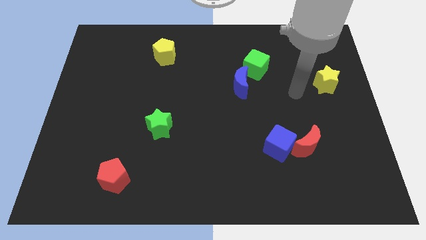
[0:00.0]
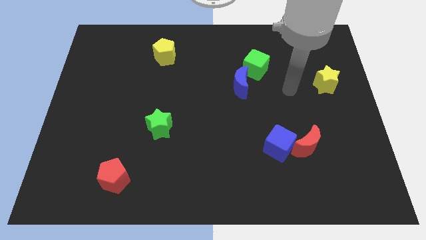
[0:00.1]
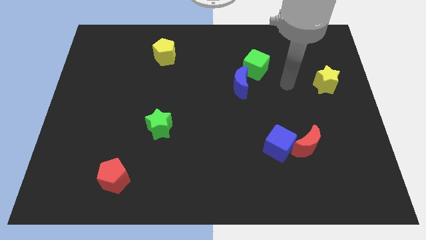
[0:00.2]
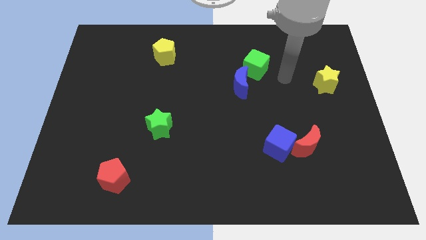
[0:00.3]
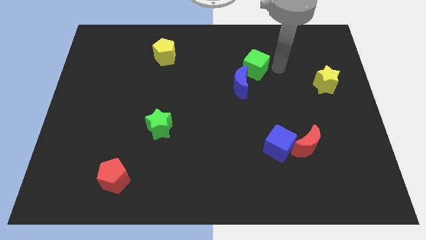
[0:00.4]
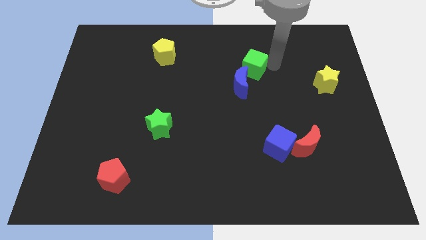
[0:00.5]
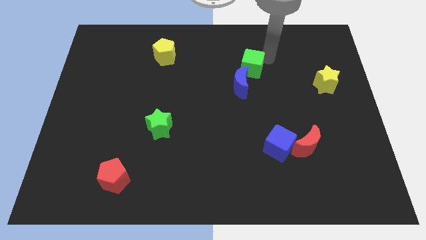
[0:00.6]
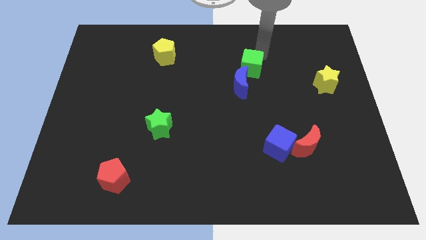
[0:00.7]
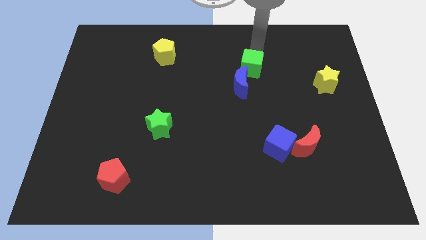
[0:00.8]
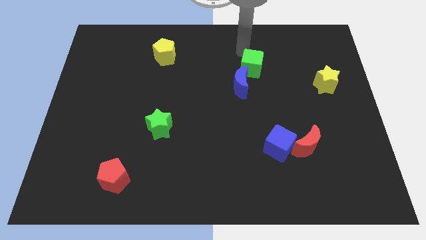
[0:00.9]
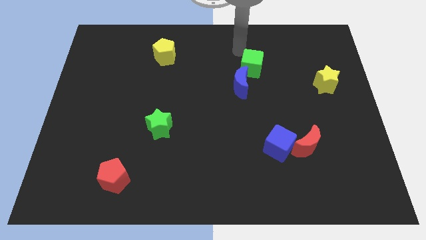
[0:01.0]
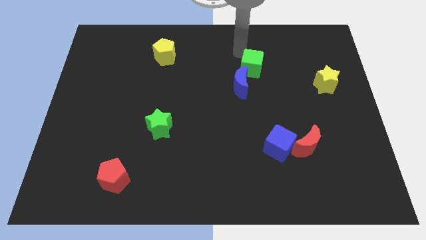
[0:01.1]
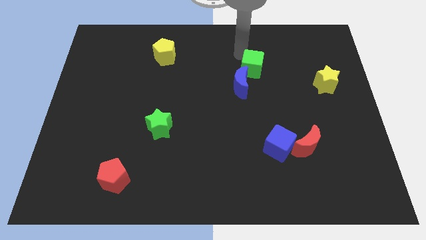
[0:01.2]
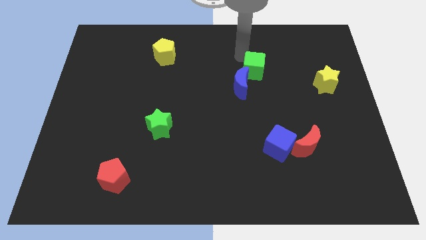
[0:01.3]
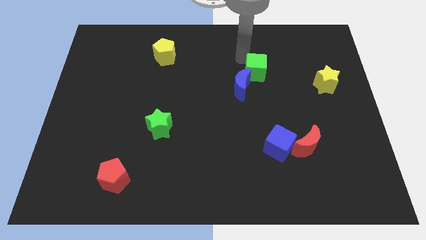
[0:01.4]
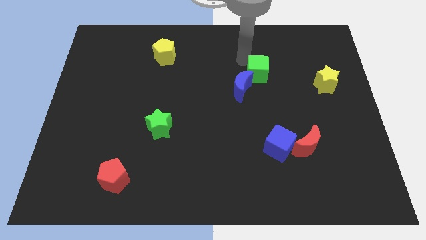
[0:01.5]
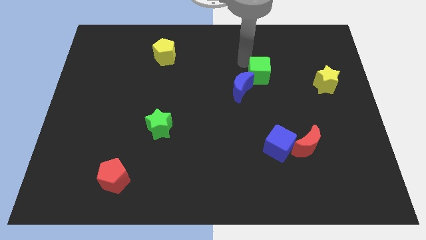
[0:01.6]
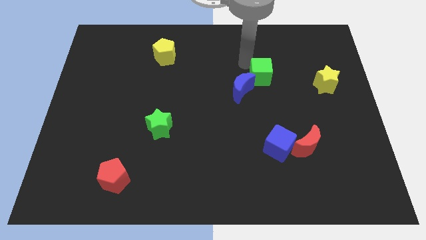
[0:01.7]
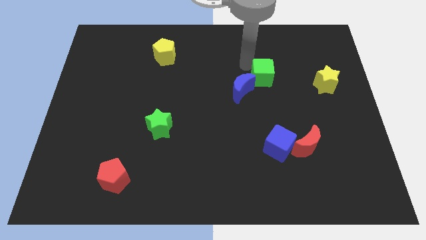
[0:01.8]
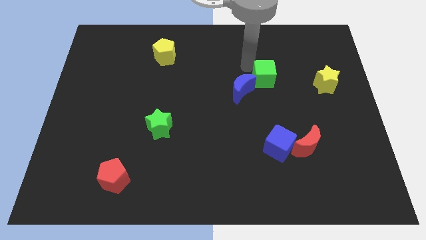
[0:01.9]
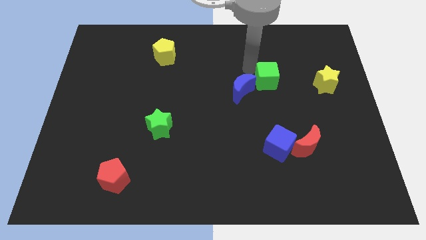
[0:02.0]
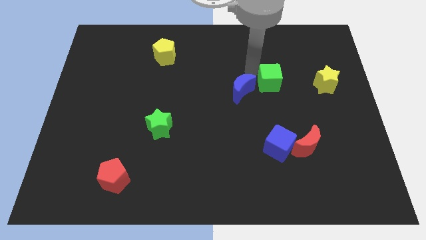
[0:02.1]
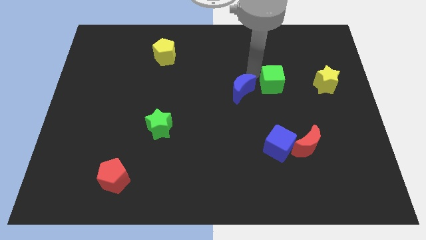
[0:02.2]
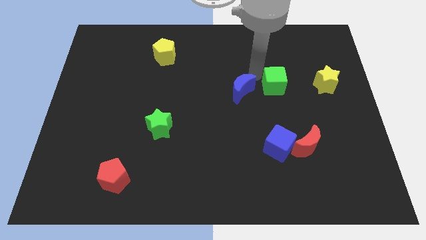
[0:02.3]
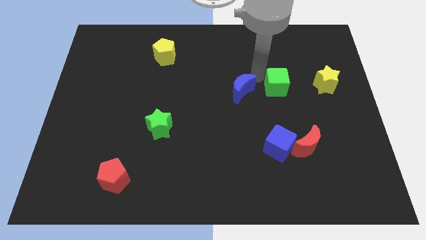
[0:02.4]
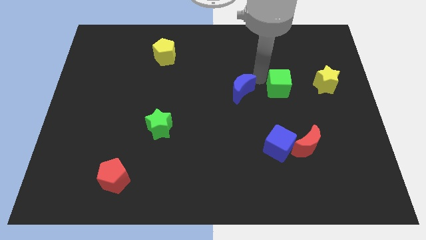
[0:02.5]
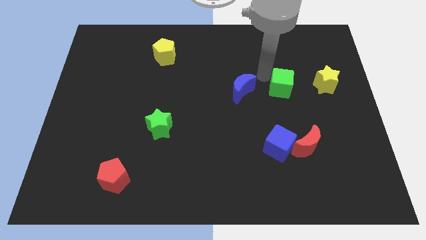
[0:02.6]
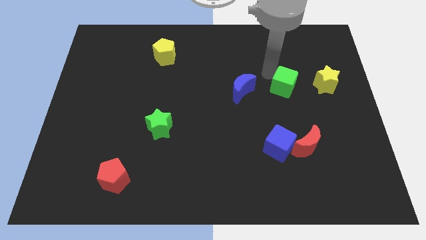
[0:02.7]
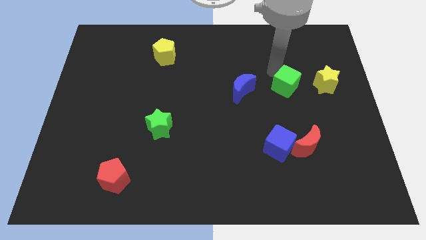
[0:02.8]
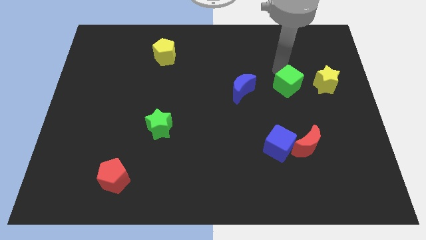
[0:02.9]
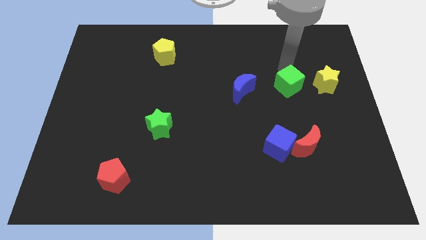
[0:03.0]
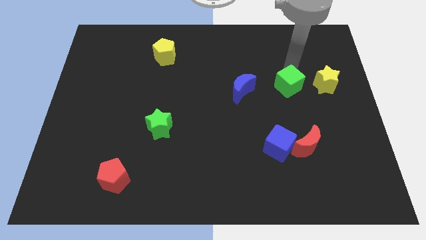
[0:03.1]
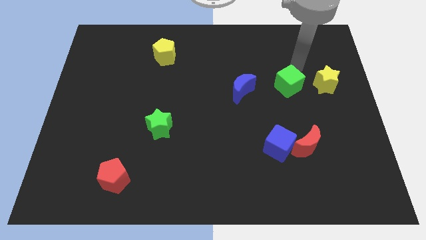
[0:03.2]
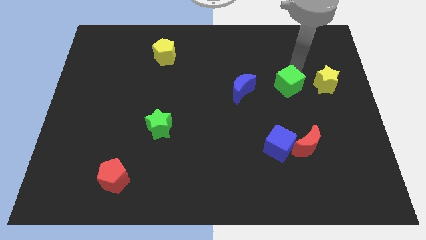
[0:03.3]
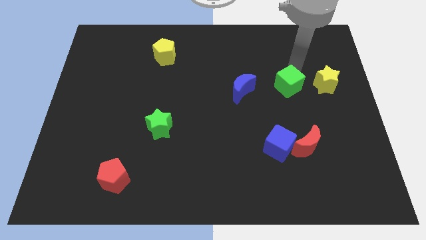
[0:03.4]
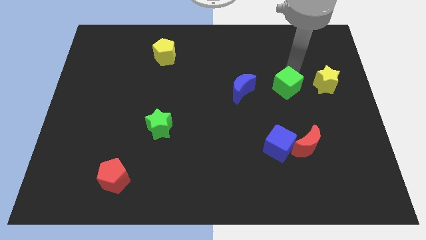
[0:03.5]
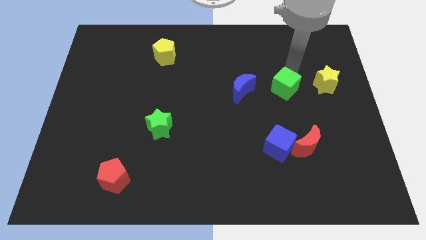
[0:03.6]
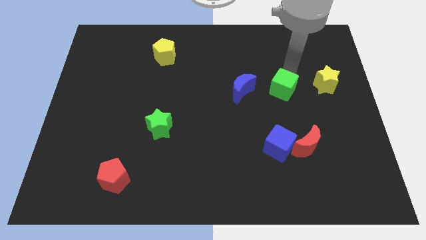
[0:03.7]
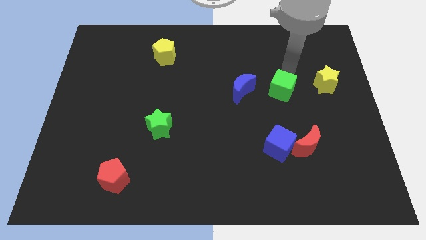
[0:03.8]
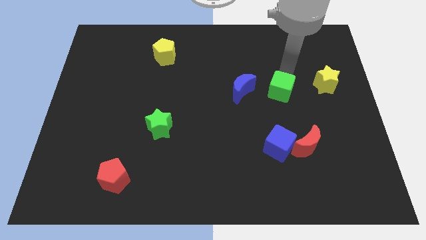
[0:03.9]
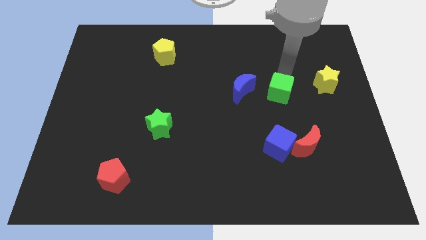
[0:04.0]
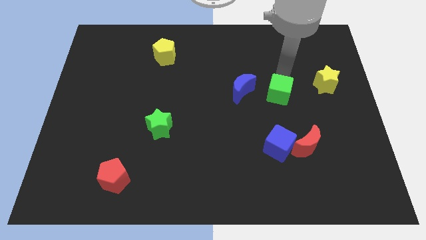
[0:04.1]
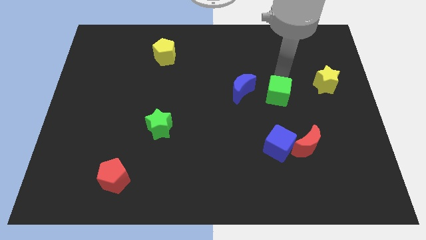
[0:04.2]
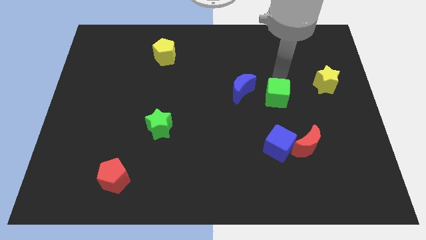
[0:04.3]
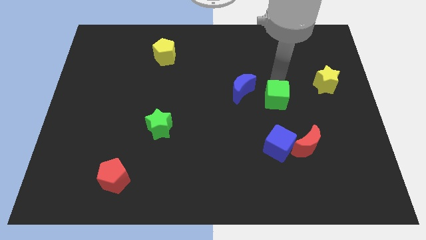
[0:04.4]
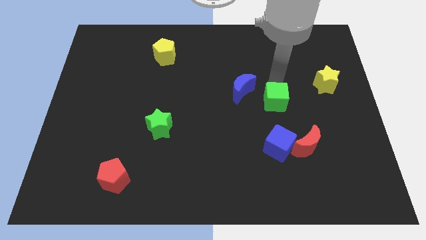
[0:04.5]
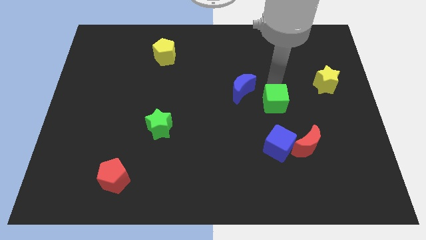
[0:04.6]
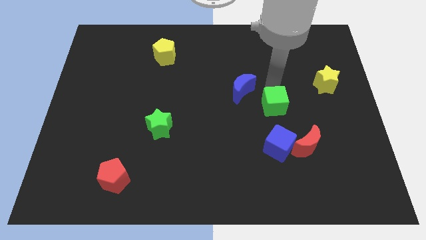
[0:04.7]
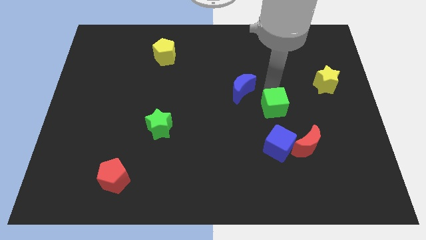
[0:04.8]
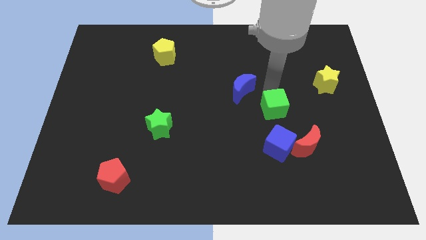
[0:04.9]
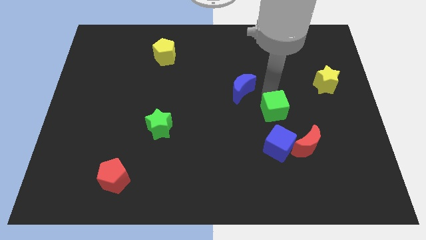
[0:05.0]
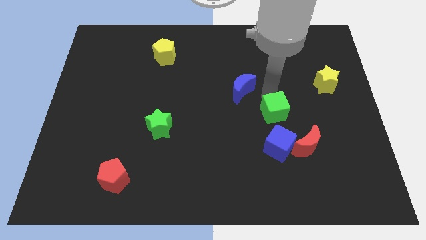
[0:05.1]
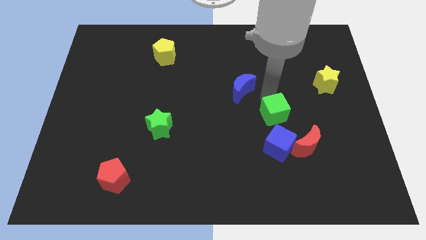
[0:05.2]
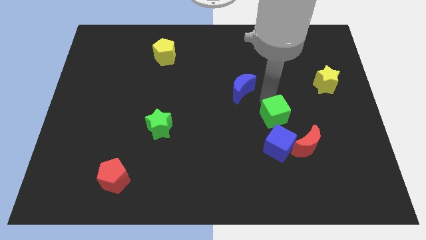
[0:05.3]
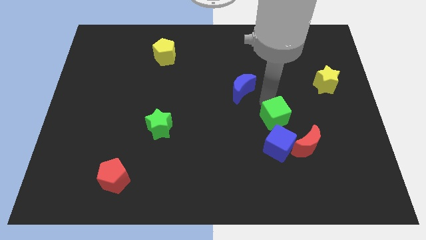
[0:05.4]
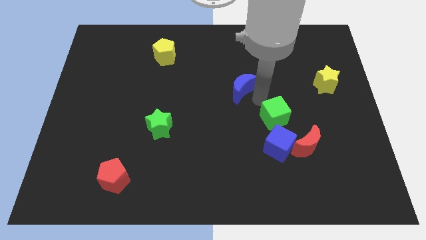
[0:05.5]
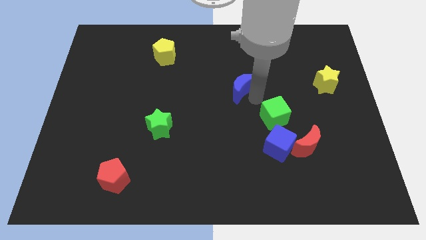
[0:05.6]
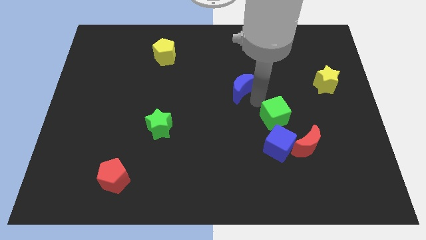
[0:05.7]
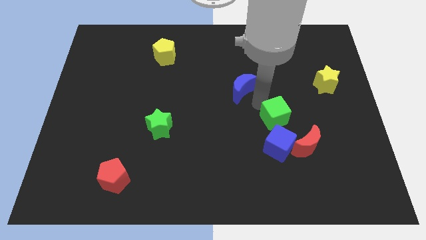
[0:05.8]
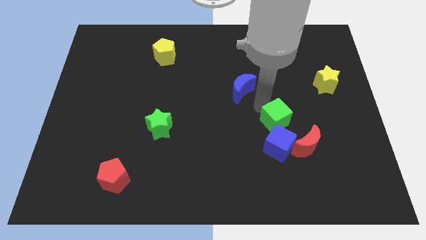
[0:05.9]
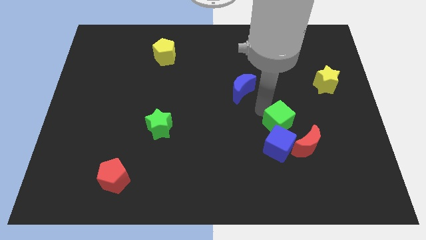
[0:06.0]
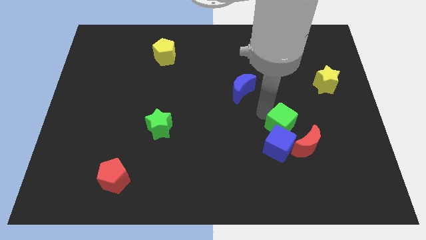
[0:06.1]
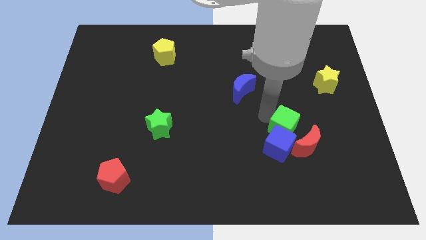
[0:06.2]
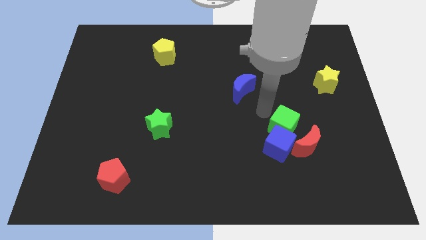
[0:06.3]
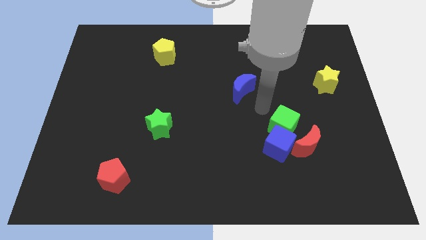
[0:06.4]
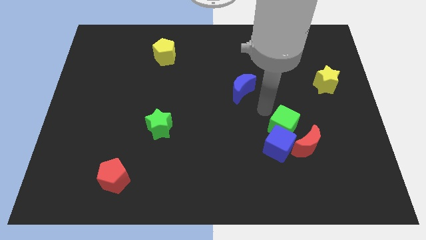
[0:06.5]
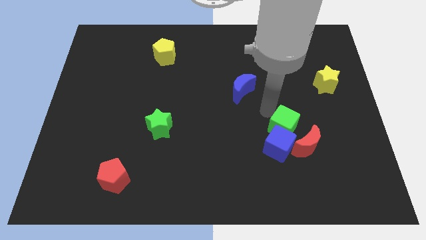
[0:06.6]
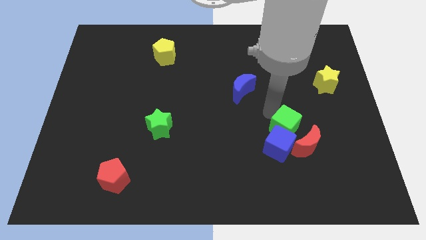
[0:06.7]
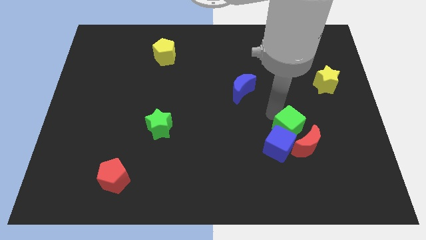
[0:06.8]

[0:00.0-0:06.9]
push the green cube to the red moon
